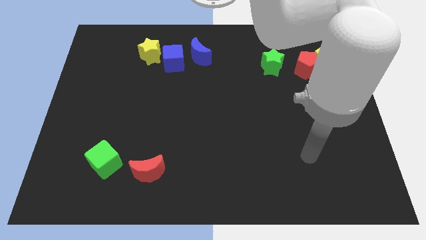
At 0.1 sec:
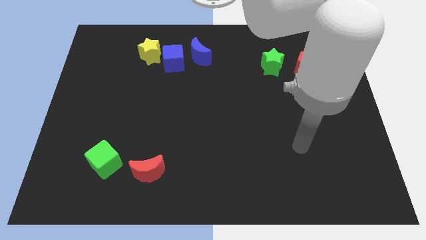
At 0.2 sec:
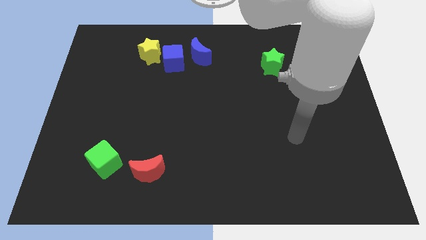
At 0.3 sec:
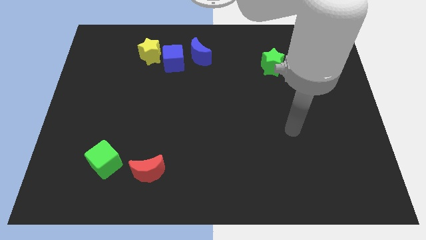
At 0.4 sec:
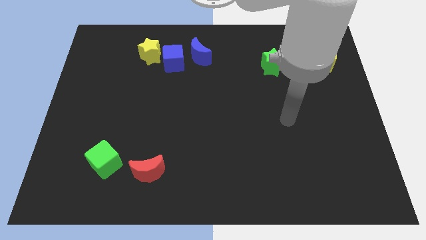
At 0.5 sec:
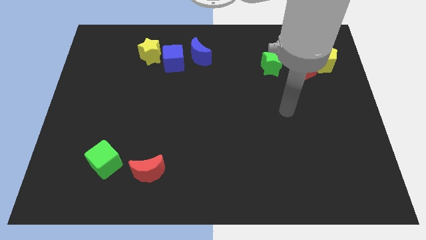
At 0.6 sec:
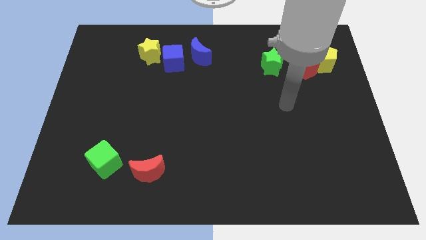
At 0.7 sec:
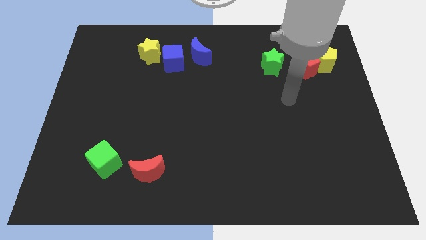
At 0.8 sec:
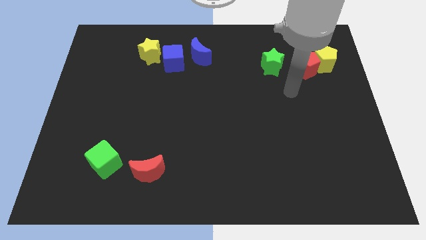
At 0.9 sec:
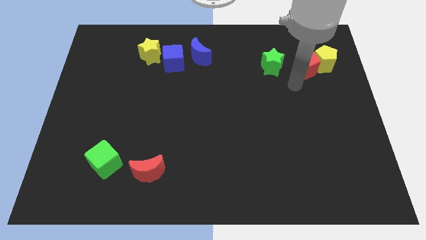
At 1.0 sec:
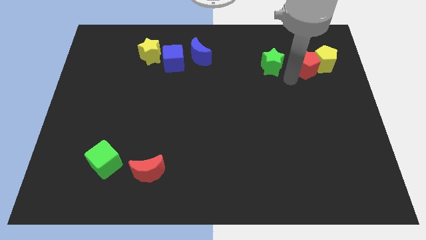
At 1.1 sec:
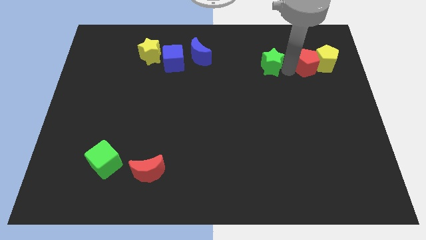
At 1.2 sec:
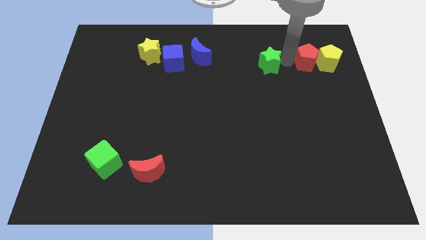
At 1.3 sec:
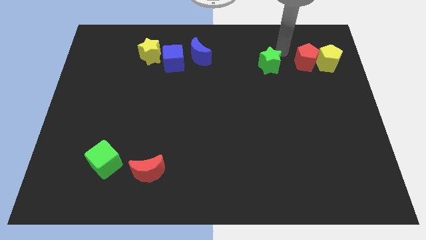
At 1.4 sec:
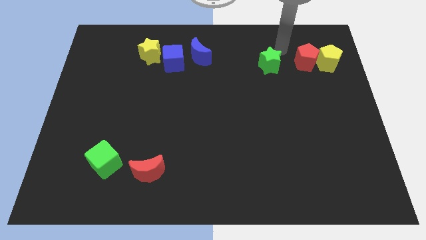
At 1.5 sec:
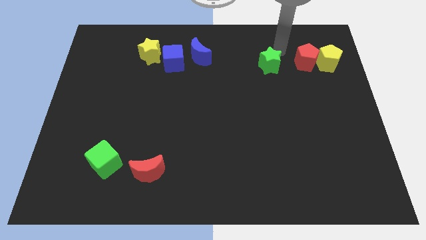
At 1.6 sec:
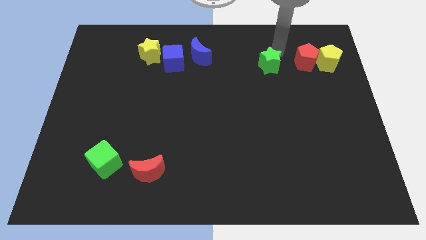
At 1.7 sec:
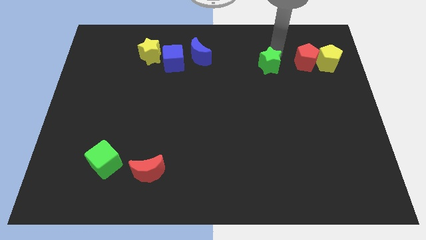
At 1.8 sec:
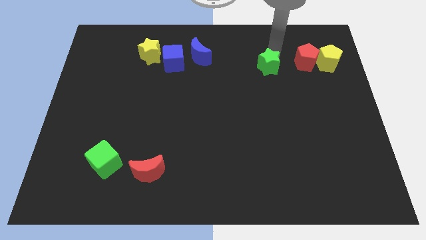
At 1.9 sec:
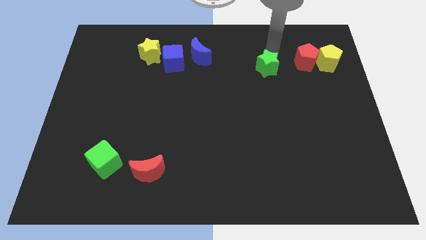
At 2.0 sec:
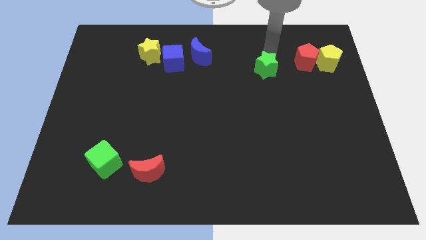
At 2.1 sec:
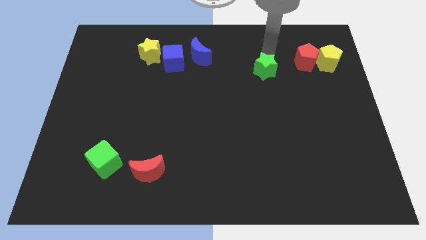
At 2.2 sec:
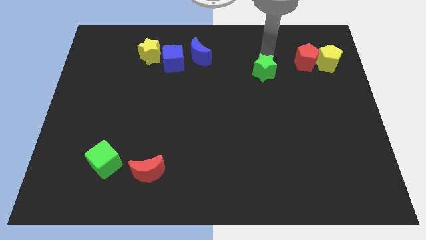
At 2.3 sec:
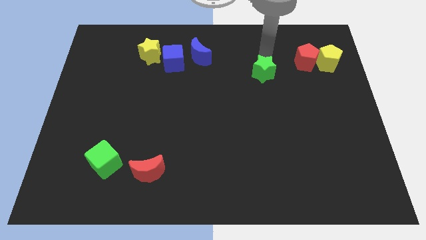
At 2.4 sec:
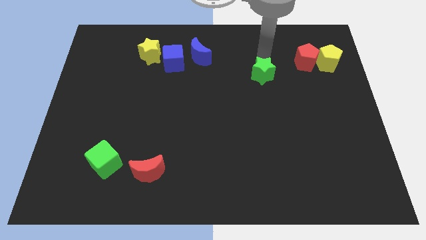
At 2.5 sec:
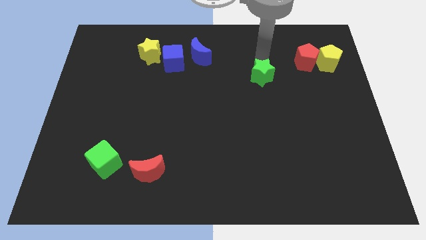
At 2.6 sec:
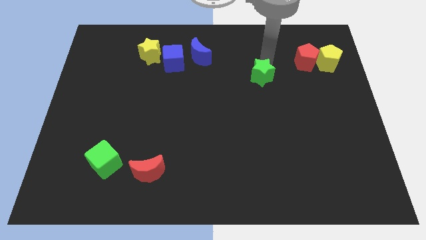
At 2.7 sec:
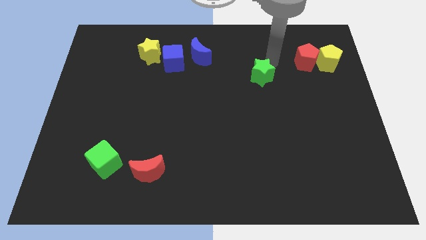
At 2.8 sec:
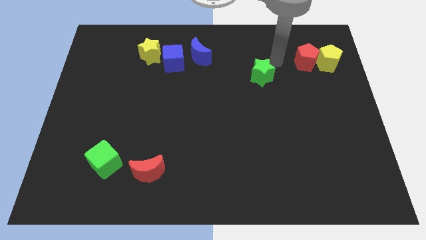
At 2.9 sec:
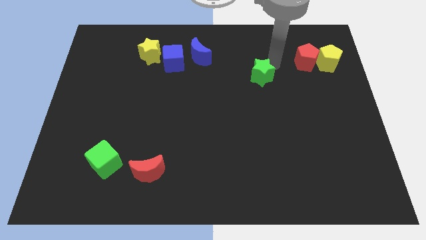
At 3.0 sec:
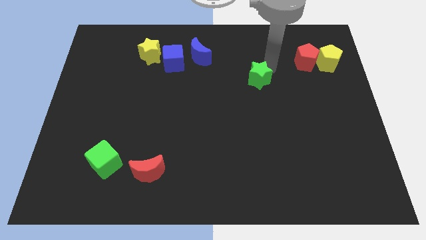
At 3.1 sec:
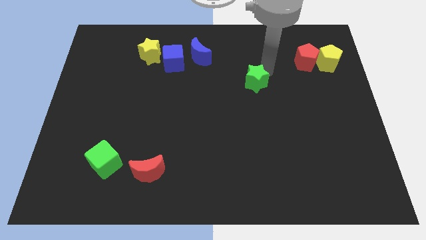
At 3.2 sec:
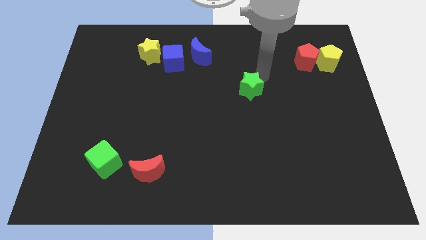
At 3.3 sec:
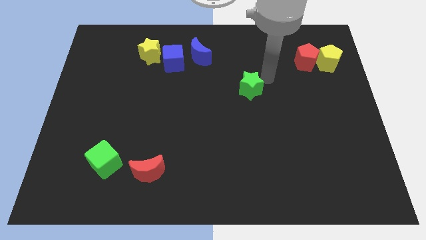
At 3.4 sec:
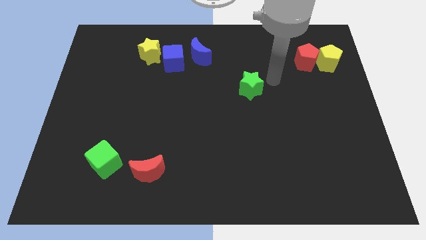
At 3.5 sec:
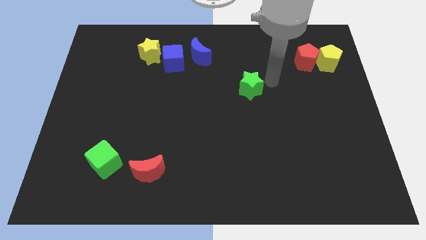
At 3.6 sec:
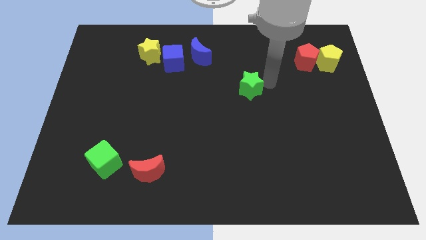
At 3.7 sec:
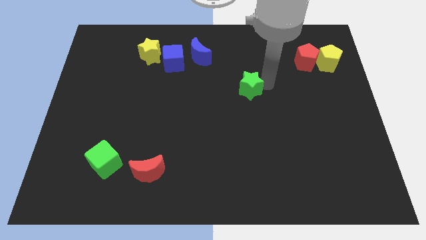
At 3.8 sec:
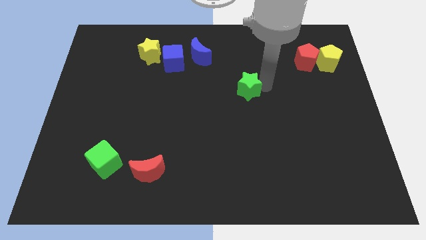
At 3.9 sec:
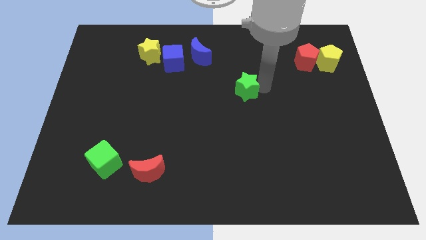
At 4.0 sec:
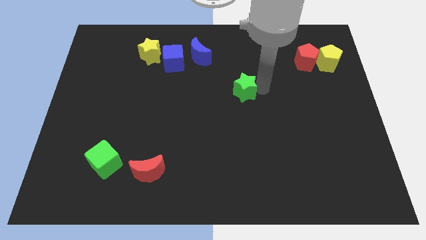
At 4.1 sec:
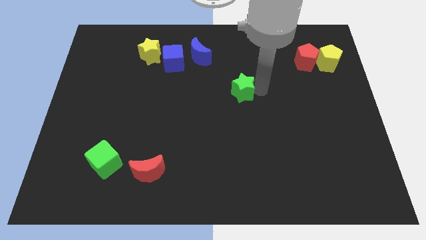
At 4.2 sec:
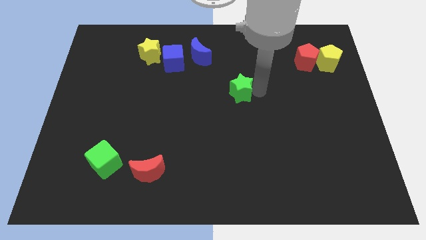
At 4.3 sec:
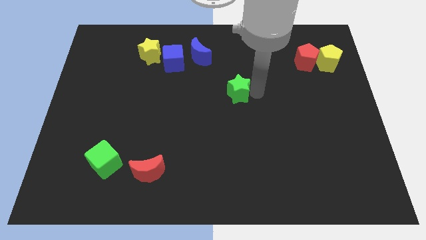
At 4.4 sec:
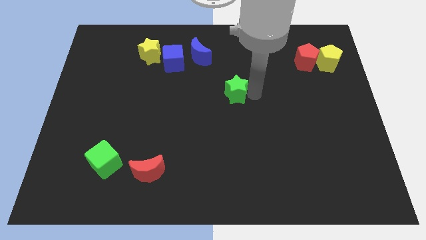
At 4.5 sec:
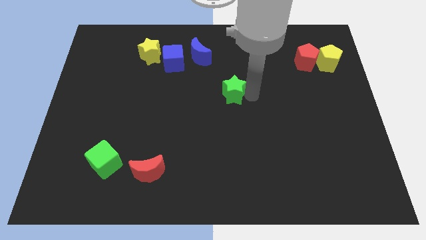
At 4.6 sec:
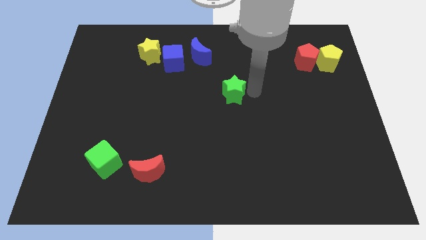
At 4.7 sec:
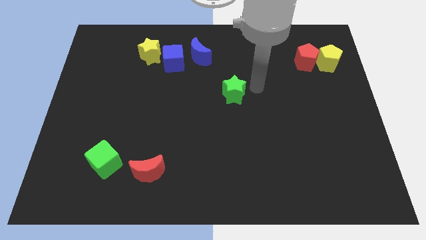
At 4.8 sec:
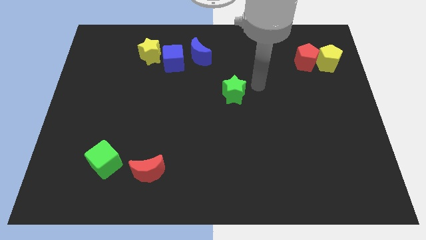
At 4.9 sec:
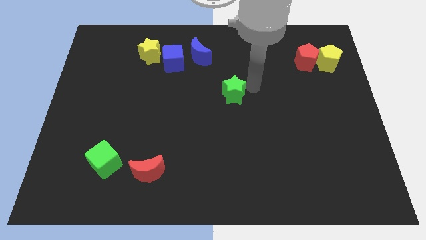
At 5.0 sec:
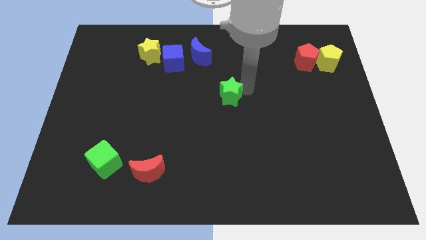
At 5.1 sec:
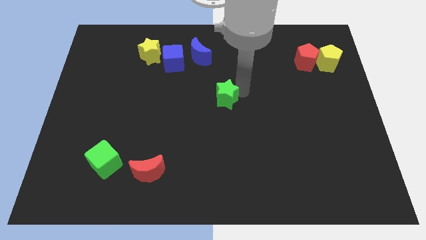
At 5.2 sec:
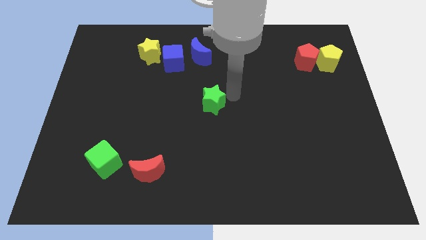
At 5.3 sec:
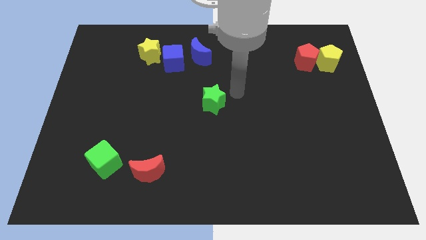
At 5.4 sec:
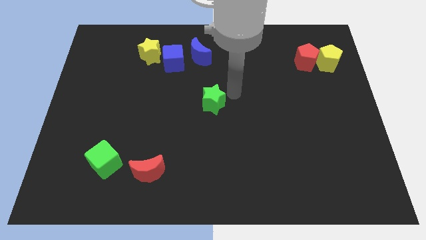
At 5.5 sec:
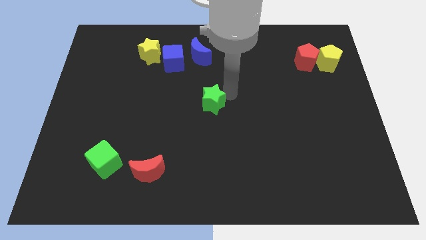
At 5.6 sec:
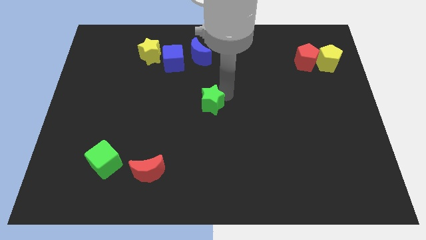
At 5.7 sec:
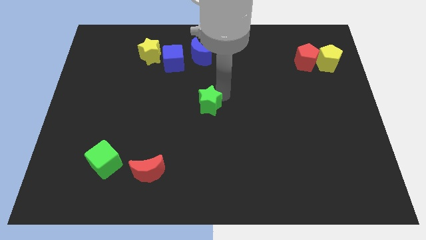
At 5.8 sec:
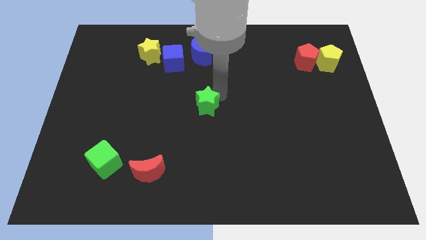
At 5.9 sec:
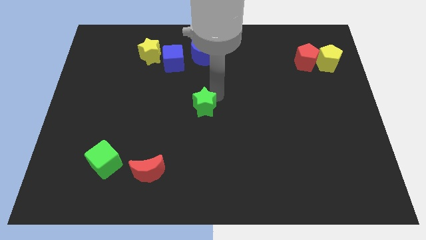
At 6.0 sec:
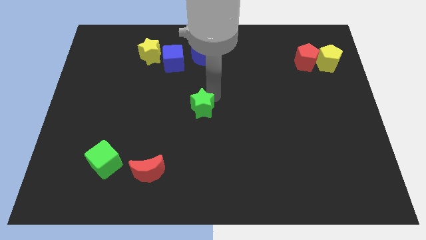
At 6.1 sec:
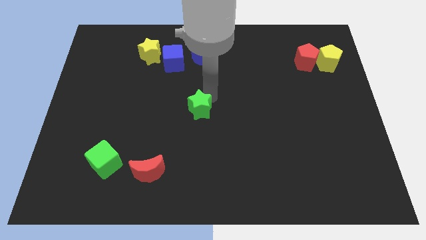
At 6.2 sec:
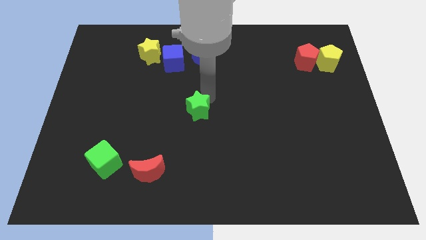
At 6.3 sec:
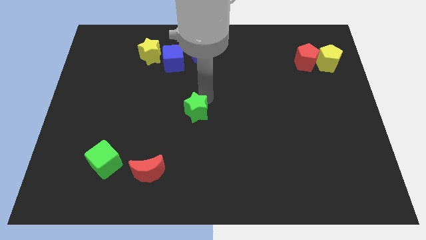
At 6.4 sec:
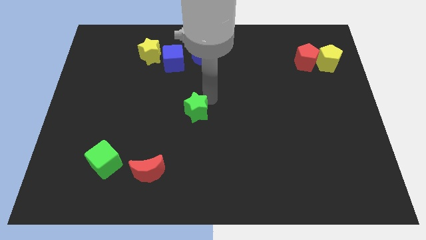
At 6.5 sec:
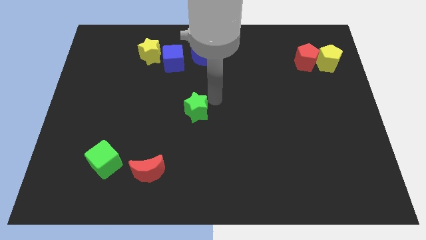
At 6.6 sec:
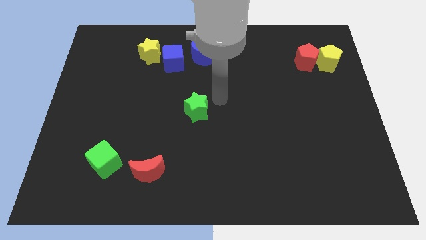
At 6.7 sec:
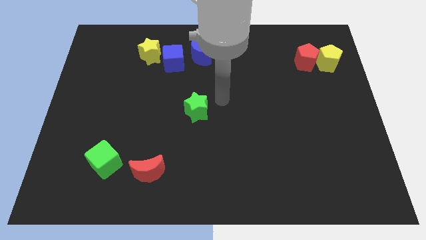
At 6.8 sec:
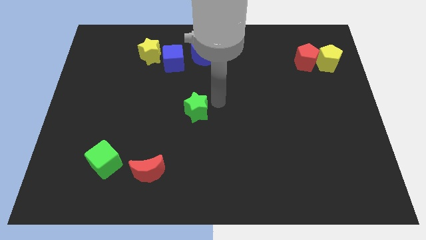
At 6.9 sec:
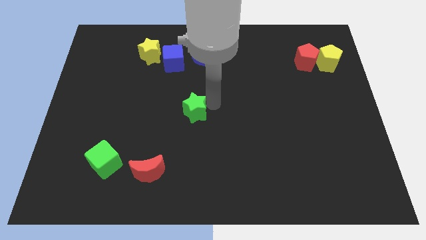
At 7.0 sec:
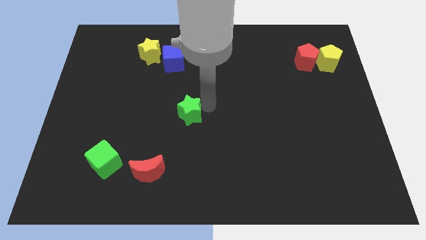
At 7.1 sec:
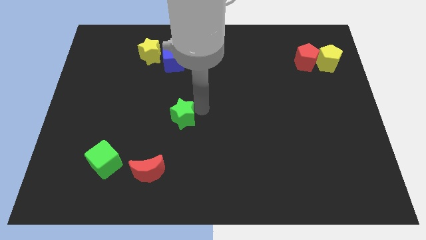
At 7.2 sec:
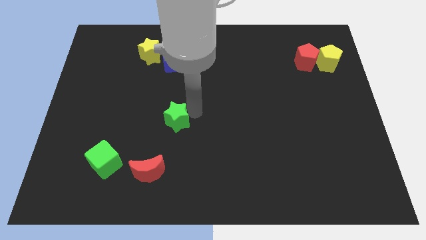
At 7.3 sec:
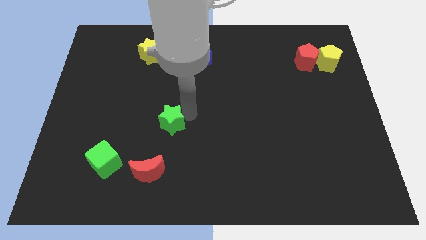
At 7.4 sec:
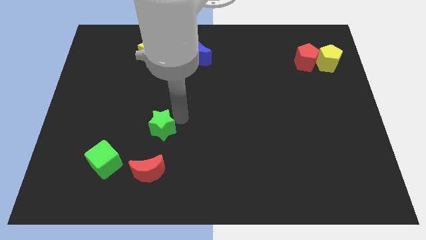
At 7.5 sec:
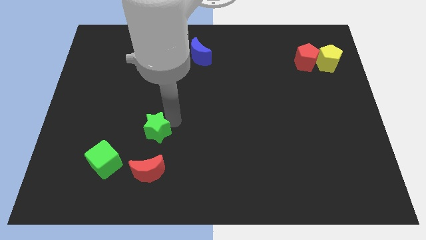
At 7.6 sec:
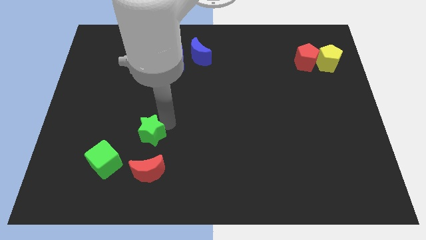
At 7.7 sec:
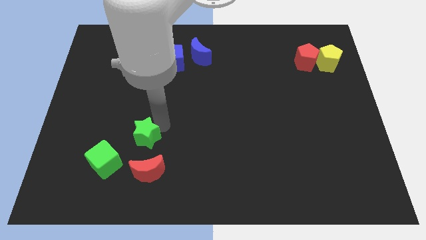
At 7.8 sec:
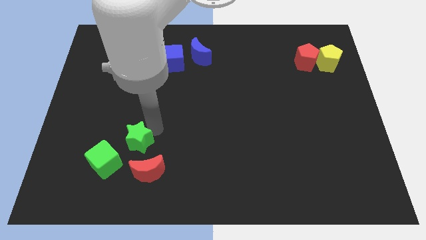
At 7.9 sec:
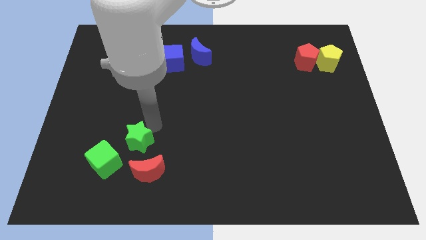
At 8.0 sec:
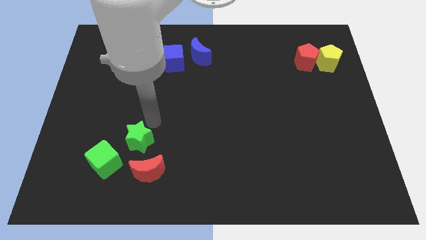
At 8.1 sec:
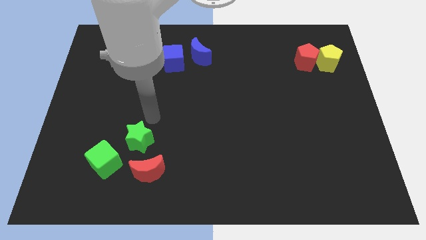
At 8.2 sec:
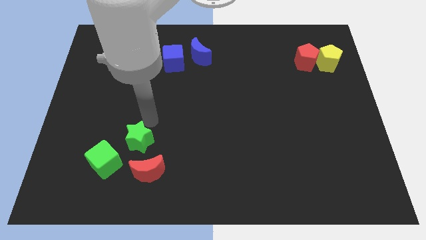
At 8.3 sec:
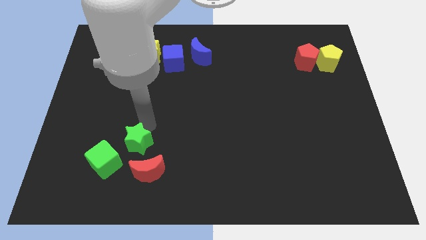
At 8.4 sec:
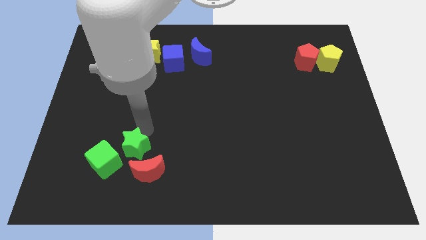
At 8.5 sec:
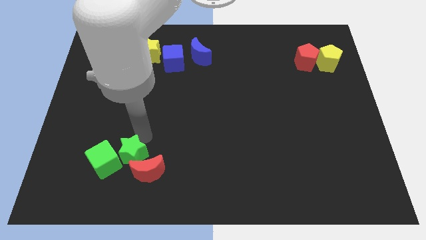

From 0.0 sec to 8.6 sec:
push the green star next to the green cube
